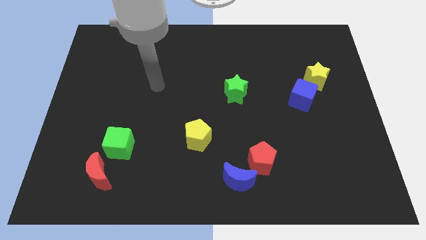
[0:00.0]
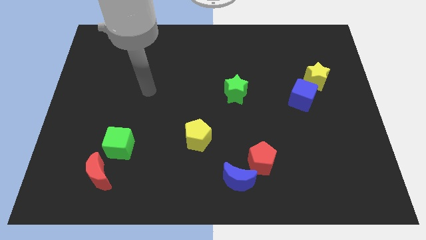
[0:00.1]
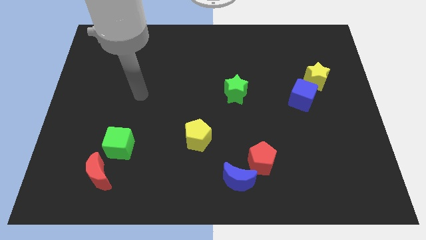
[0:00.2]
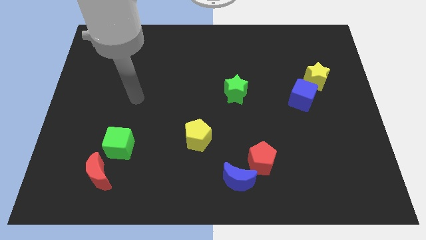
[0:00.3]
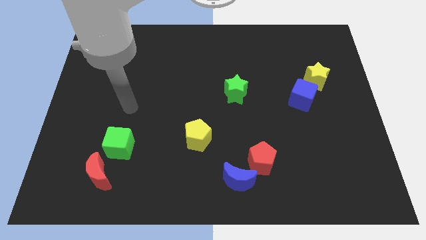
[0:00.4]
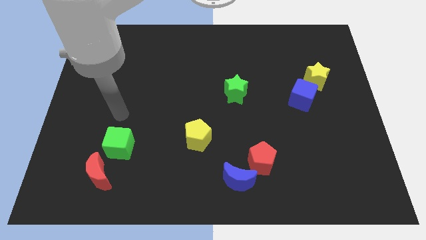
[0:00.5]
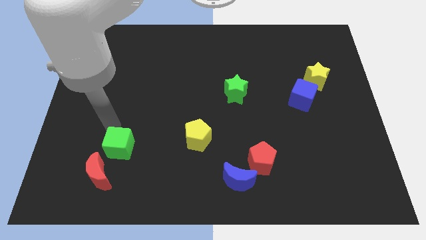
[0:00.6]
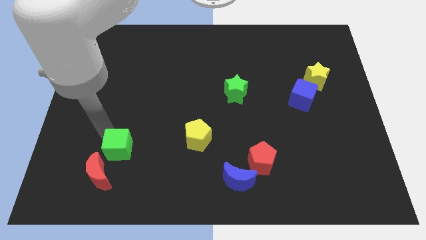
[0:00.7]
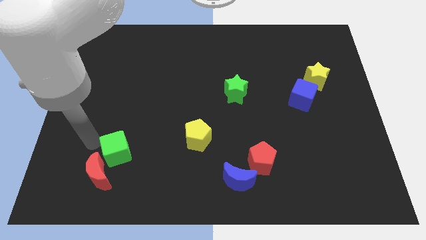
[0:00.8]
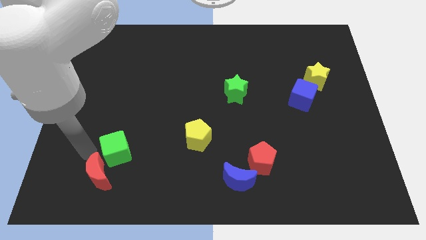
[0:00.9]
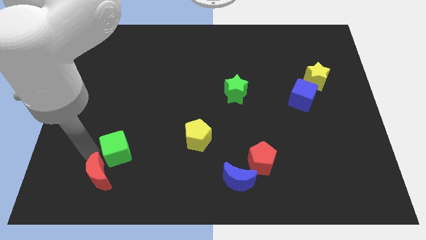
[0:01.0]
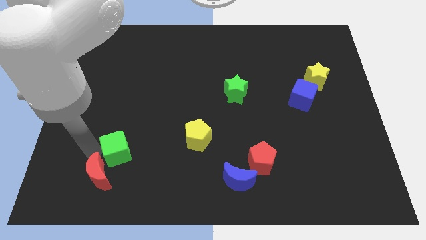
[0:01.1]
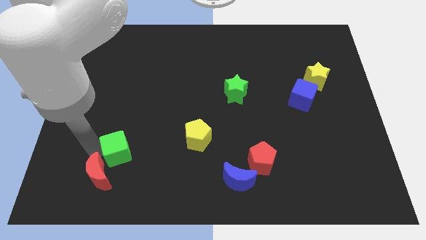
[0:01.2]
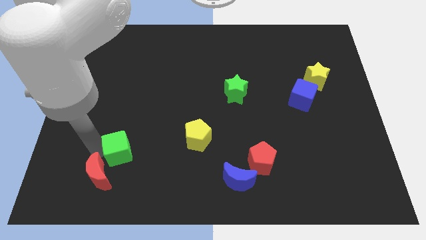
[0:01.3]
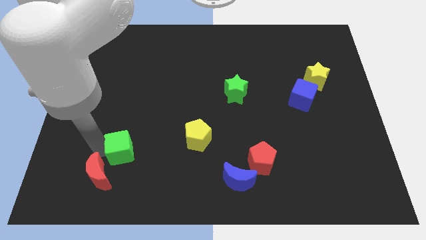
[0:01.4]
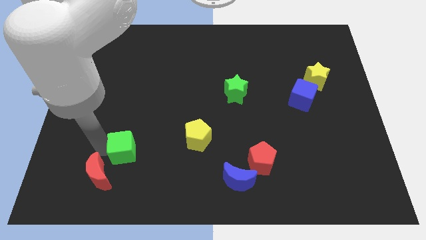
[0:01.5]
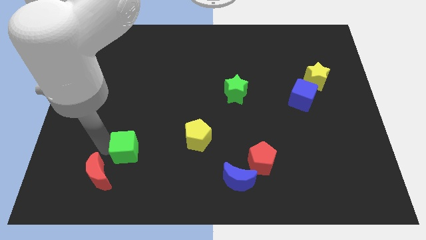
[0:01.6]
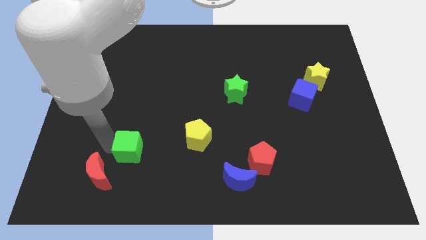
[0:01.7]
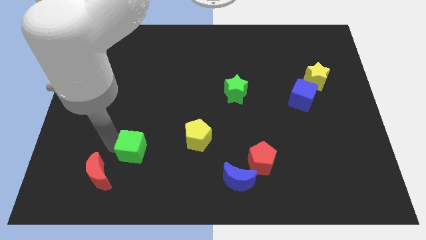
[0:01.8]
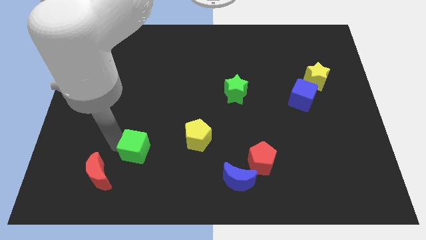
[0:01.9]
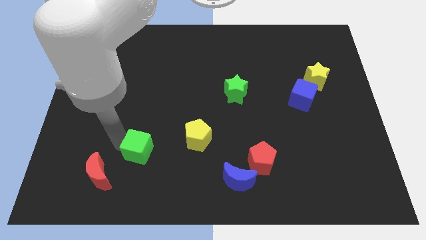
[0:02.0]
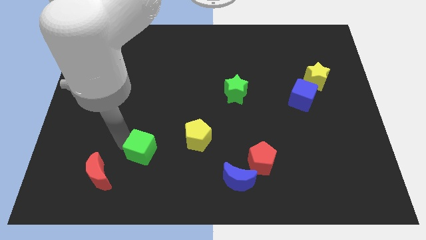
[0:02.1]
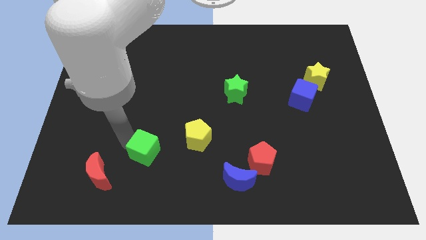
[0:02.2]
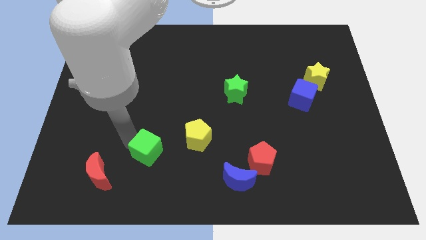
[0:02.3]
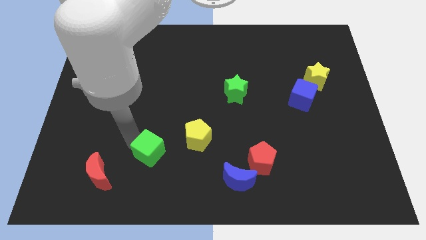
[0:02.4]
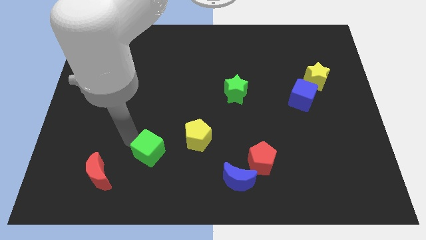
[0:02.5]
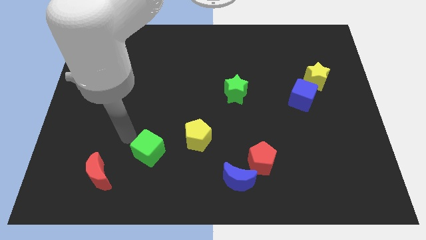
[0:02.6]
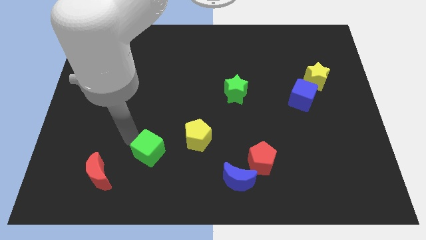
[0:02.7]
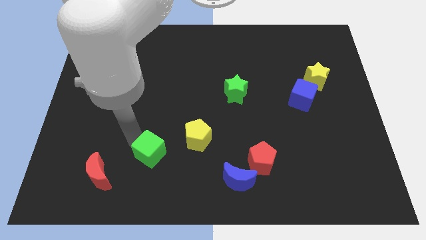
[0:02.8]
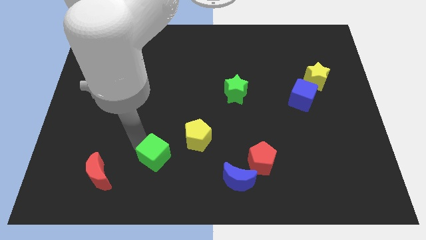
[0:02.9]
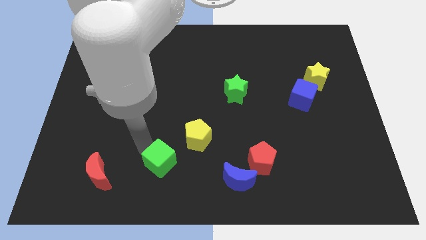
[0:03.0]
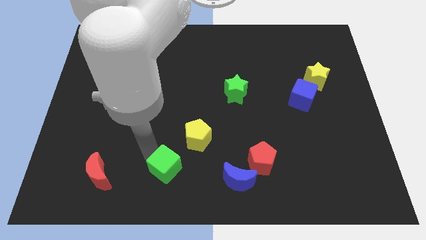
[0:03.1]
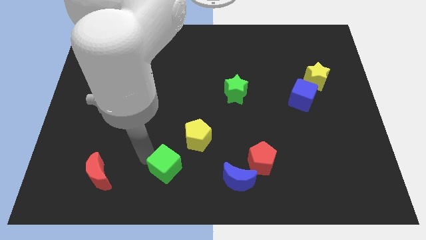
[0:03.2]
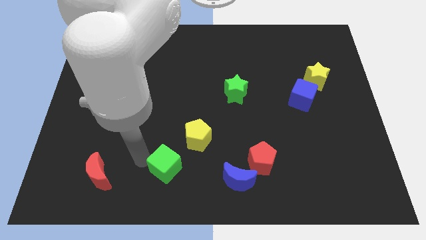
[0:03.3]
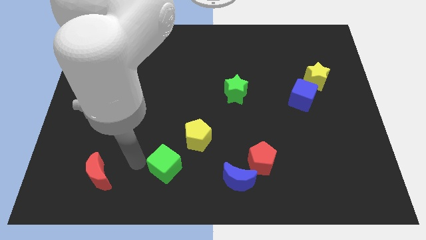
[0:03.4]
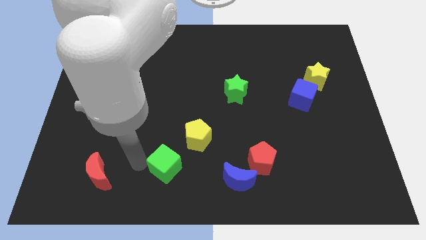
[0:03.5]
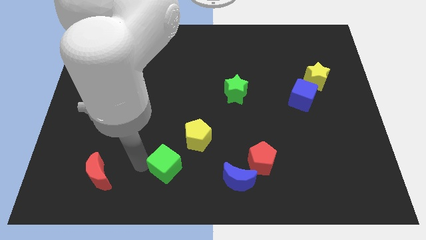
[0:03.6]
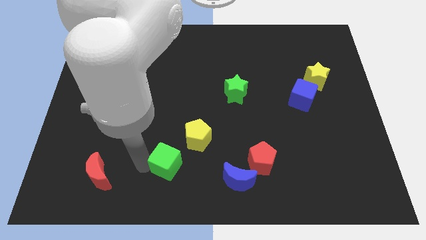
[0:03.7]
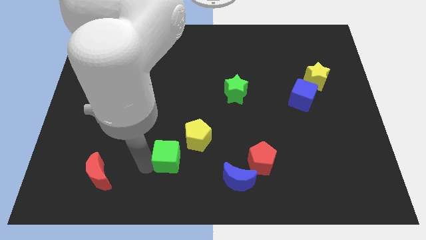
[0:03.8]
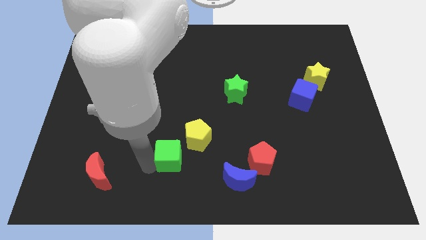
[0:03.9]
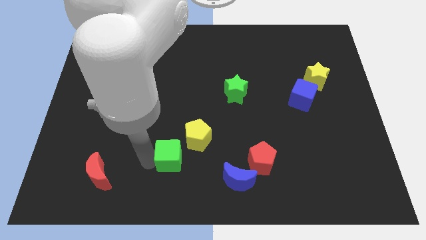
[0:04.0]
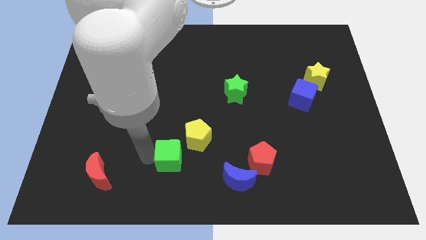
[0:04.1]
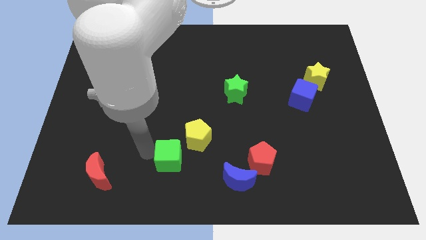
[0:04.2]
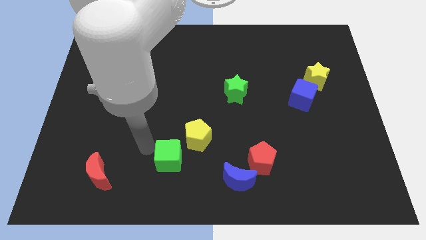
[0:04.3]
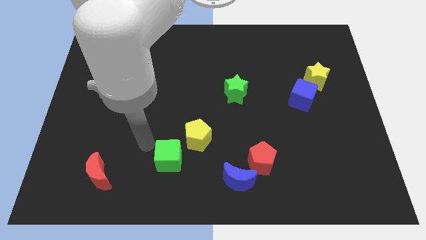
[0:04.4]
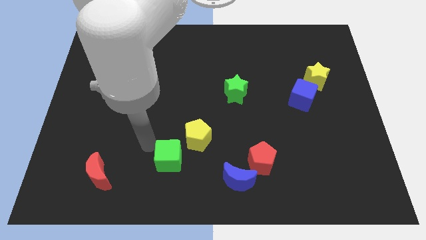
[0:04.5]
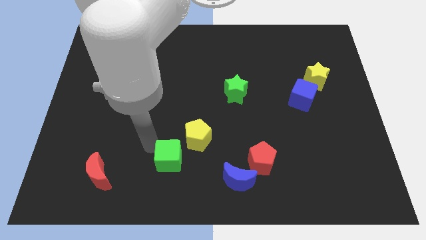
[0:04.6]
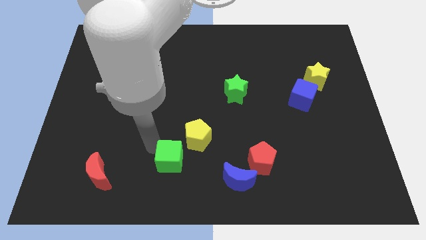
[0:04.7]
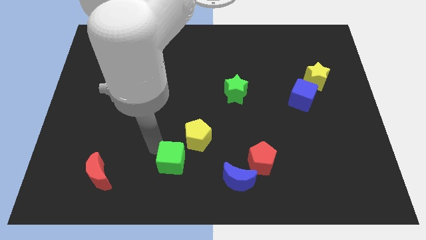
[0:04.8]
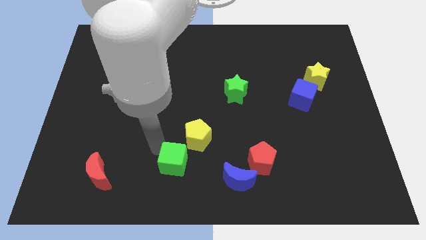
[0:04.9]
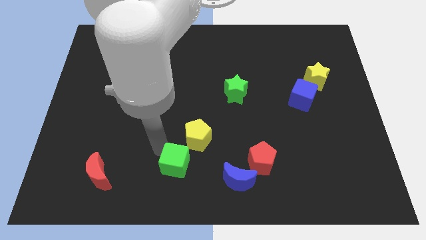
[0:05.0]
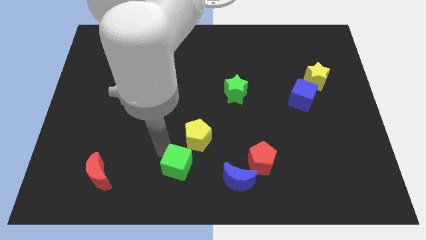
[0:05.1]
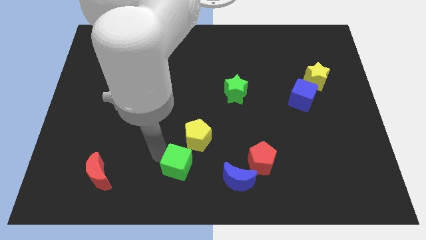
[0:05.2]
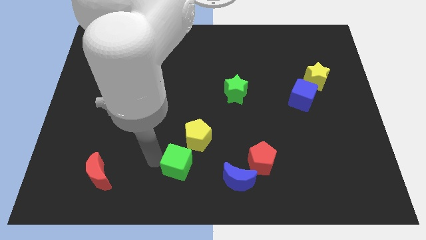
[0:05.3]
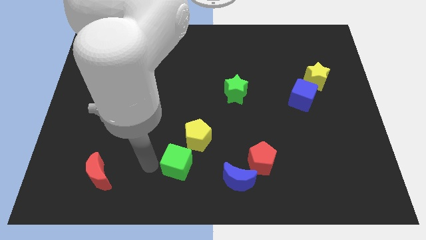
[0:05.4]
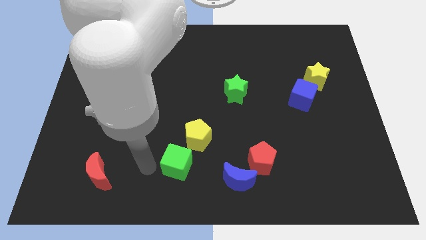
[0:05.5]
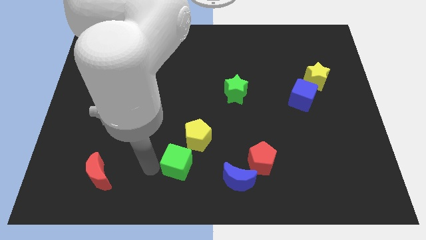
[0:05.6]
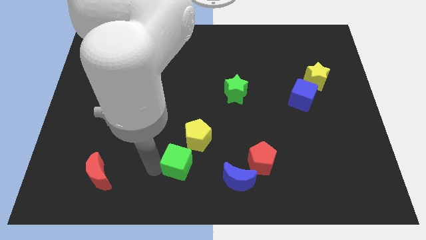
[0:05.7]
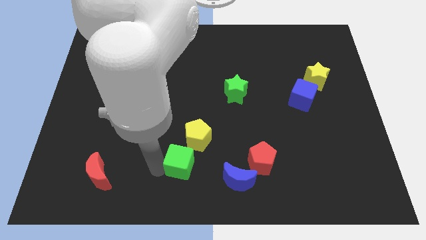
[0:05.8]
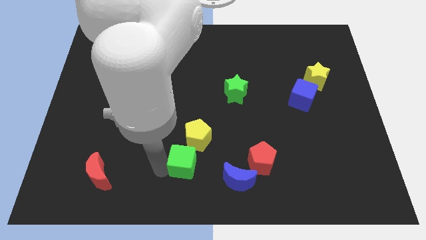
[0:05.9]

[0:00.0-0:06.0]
push the green cube to the left side of the red pentagon

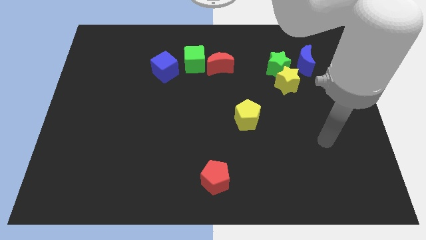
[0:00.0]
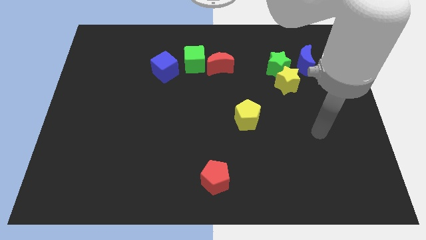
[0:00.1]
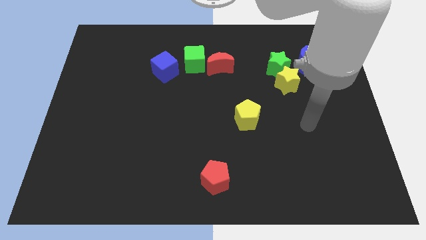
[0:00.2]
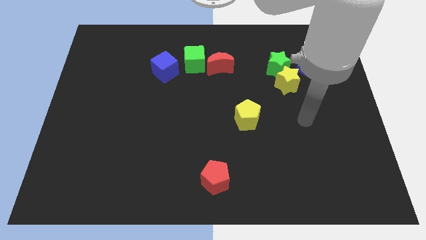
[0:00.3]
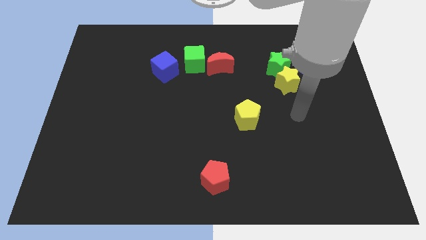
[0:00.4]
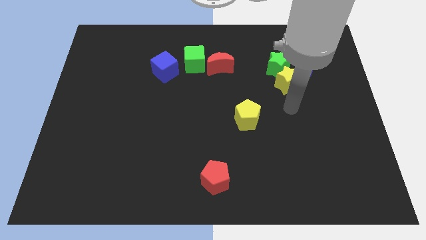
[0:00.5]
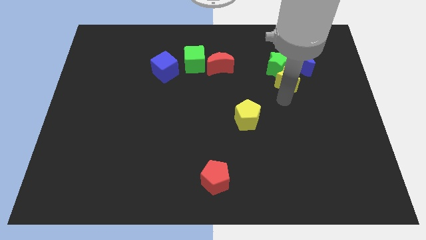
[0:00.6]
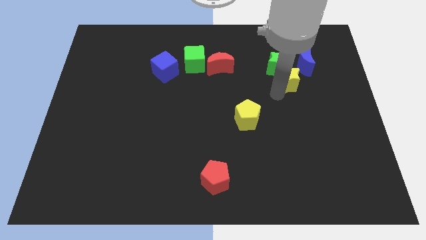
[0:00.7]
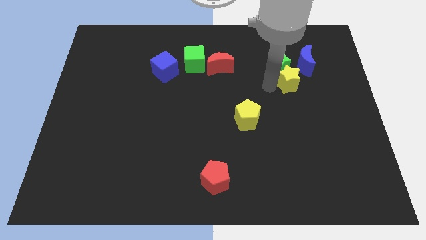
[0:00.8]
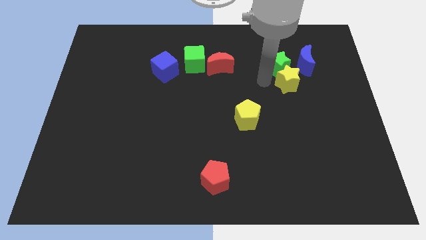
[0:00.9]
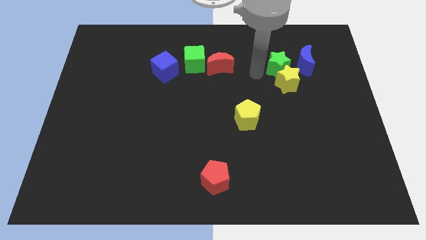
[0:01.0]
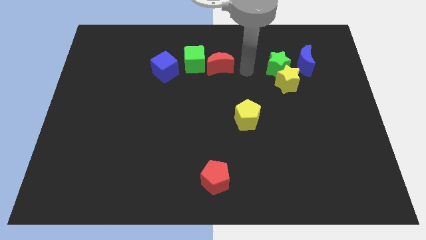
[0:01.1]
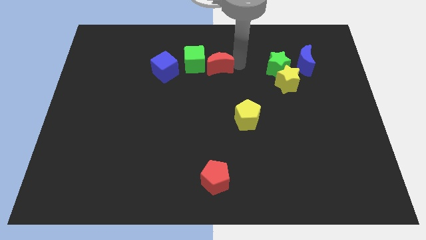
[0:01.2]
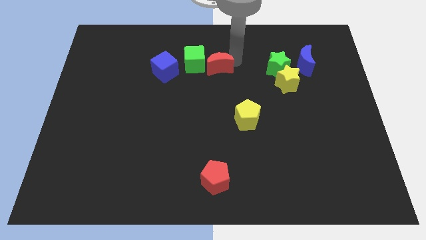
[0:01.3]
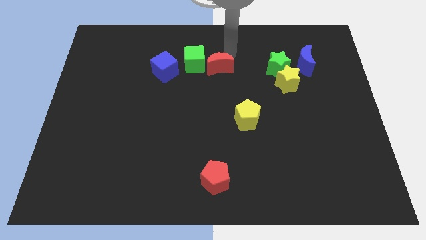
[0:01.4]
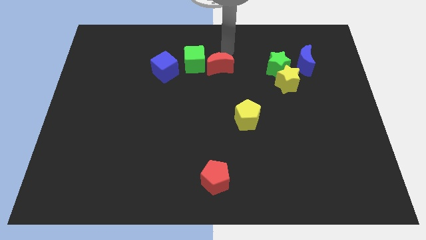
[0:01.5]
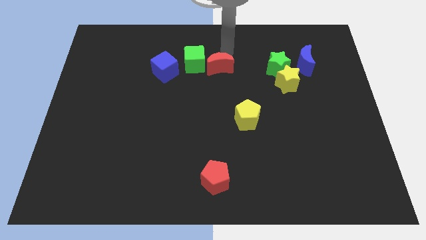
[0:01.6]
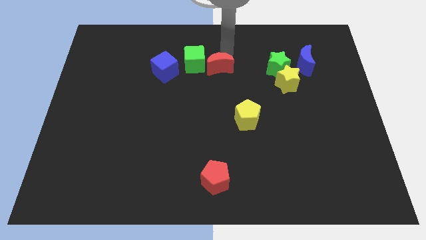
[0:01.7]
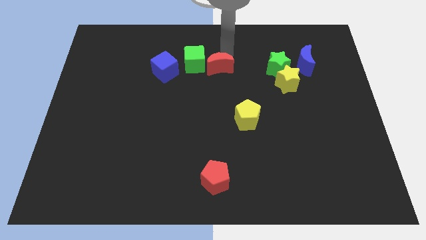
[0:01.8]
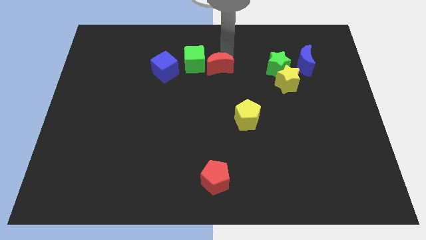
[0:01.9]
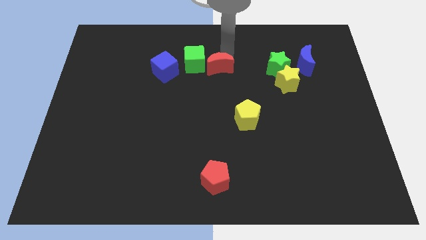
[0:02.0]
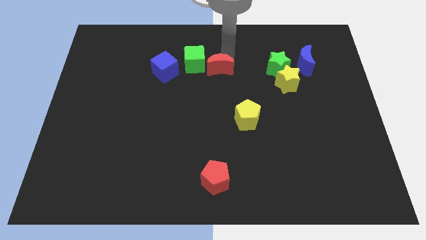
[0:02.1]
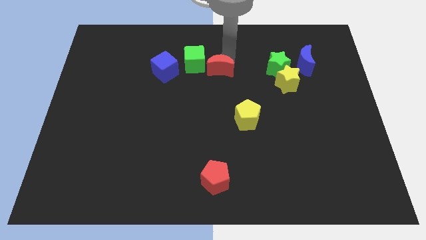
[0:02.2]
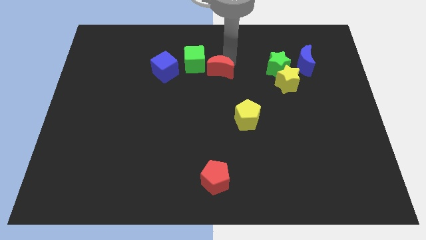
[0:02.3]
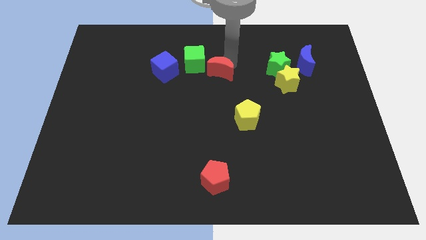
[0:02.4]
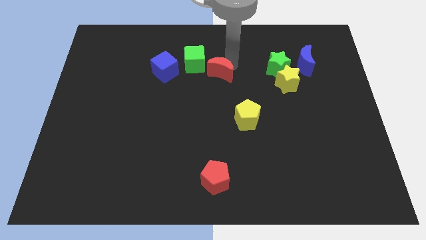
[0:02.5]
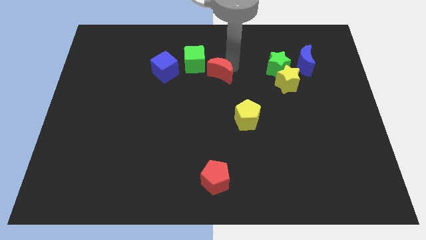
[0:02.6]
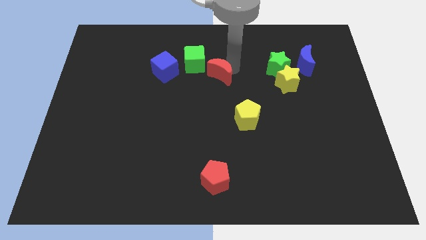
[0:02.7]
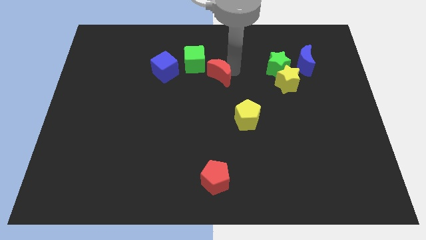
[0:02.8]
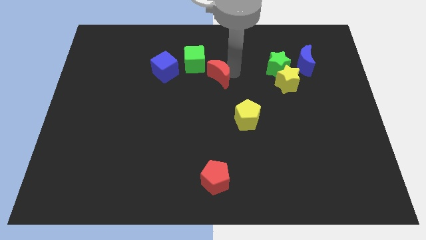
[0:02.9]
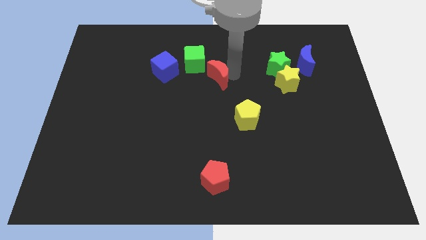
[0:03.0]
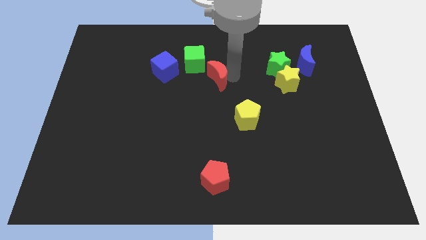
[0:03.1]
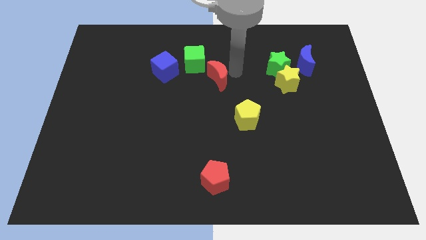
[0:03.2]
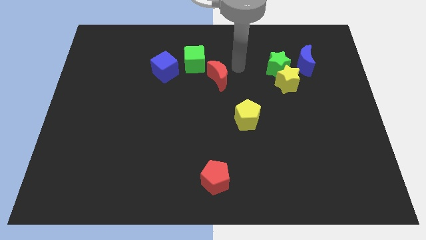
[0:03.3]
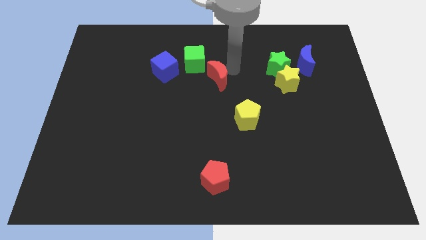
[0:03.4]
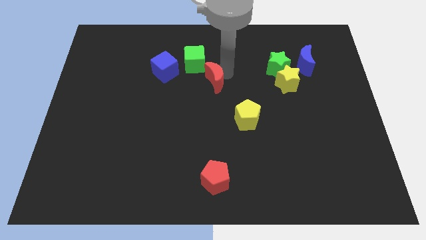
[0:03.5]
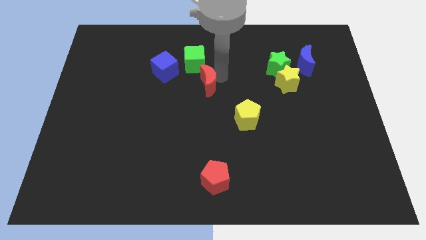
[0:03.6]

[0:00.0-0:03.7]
slide the red moon to the bottom side of the green cube
